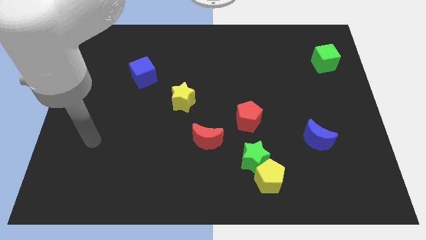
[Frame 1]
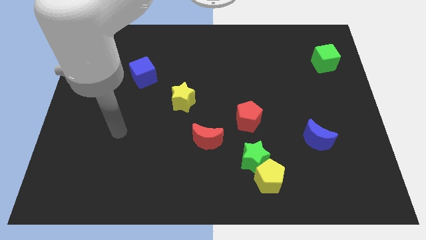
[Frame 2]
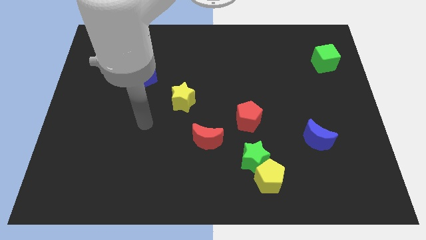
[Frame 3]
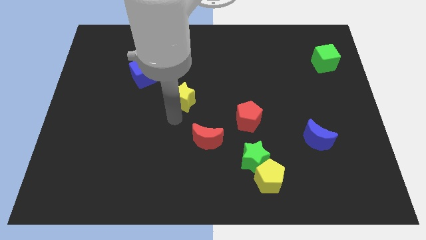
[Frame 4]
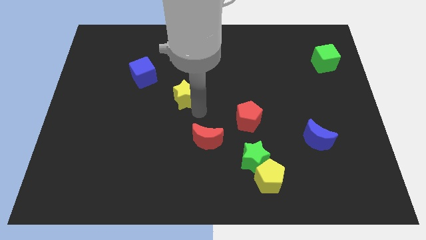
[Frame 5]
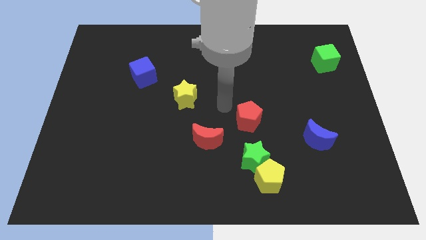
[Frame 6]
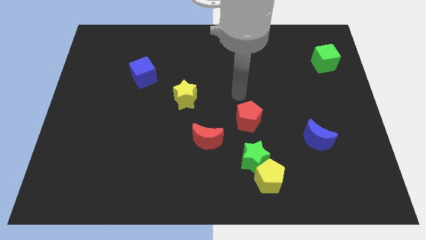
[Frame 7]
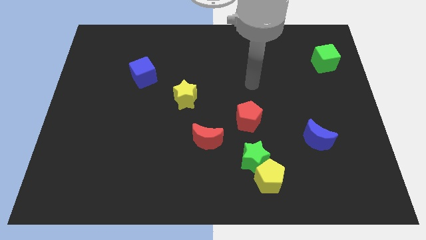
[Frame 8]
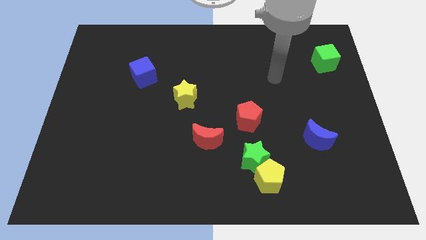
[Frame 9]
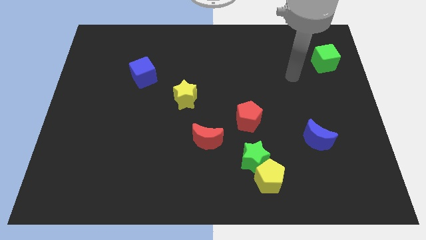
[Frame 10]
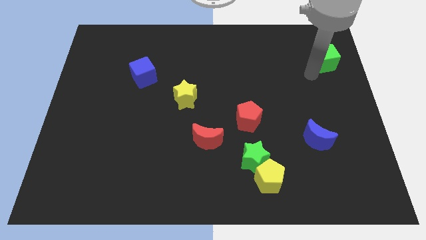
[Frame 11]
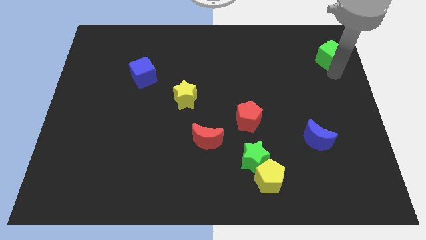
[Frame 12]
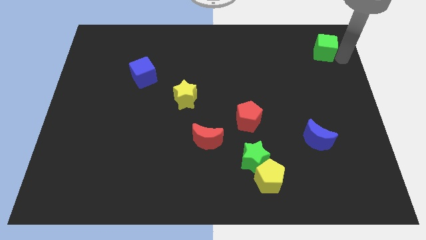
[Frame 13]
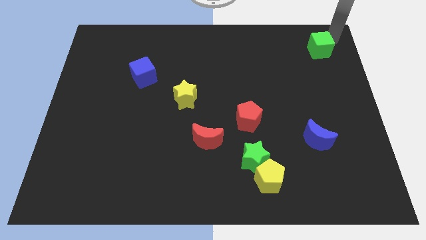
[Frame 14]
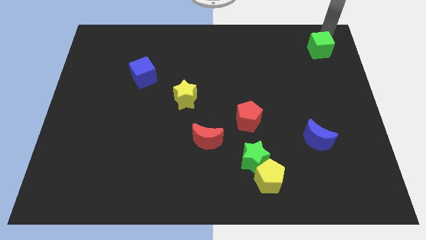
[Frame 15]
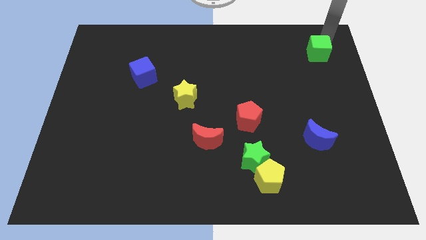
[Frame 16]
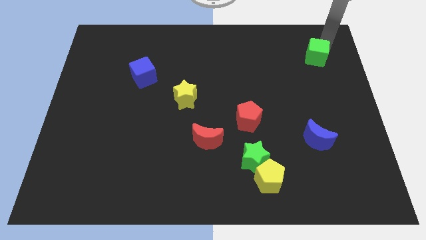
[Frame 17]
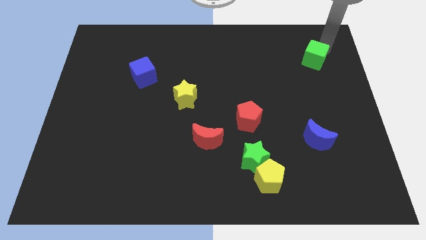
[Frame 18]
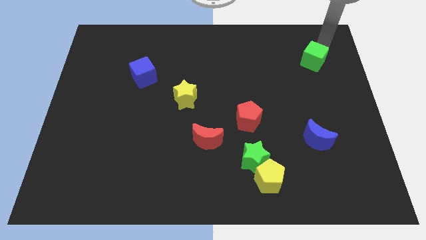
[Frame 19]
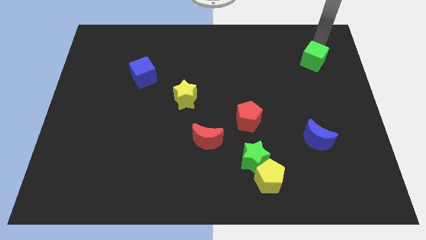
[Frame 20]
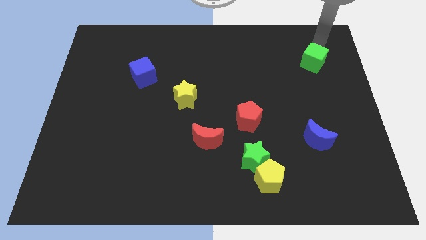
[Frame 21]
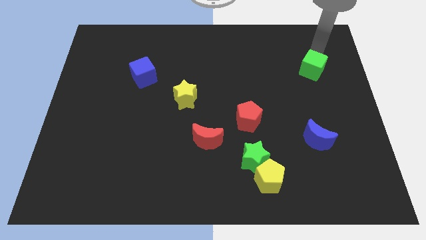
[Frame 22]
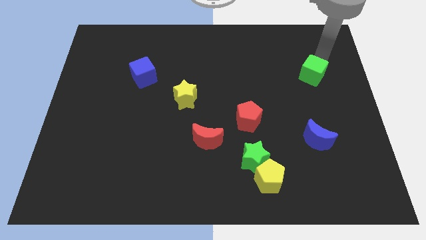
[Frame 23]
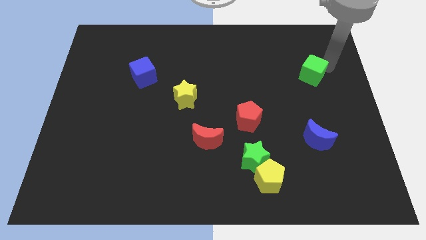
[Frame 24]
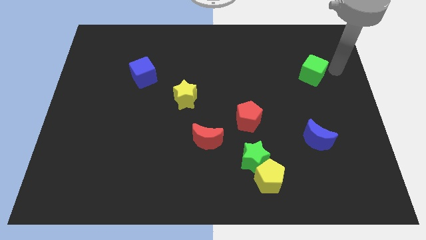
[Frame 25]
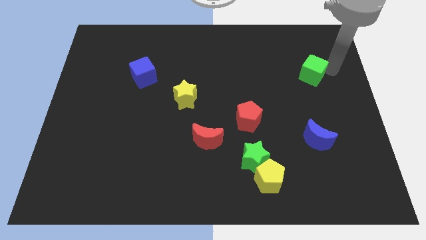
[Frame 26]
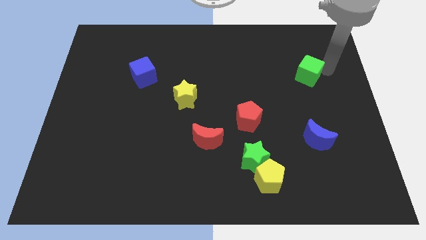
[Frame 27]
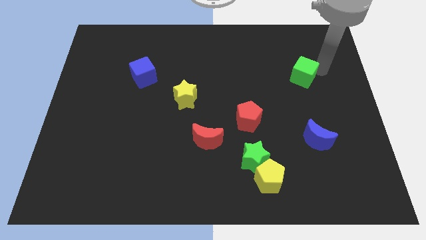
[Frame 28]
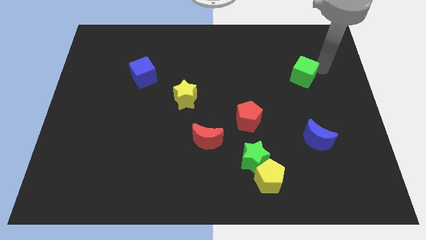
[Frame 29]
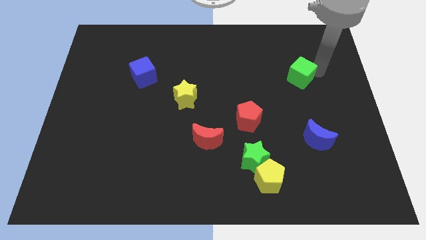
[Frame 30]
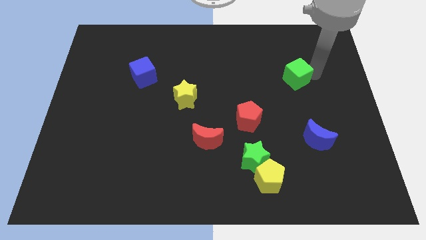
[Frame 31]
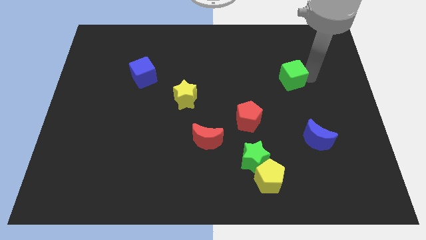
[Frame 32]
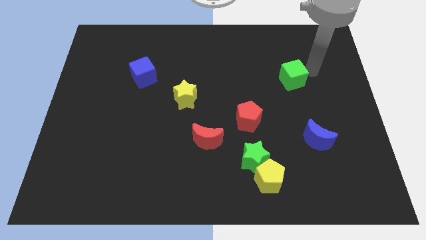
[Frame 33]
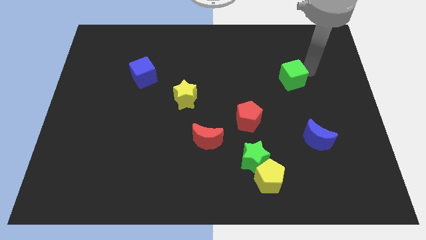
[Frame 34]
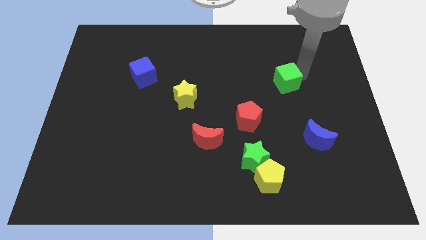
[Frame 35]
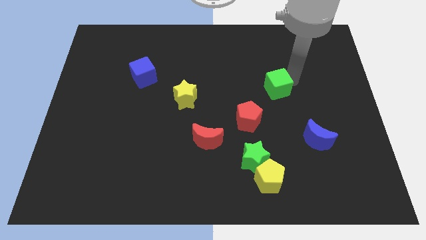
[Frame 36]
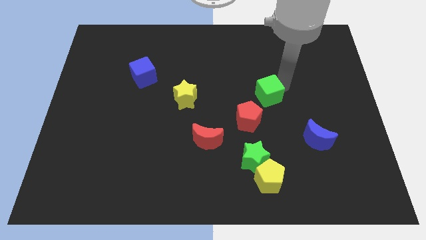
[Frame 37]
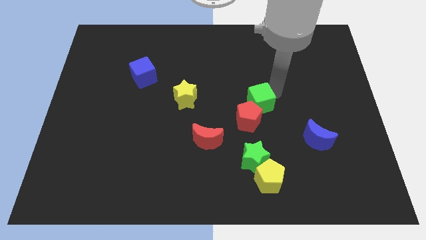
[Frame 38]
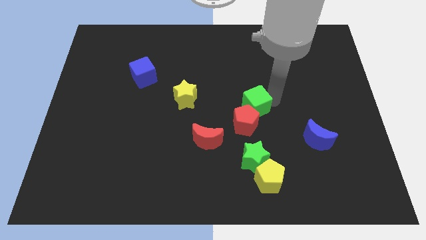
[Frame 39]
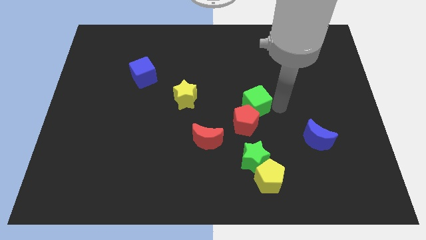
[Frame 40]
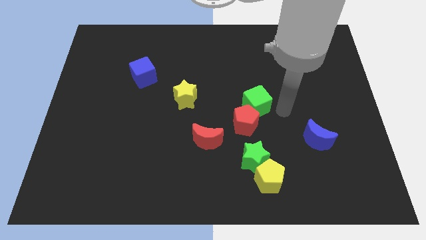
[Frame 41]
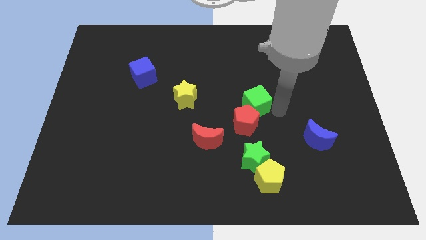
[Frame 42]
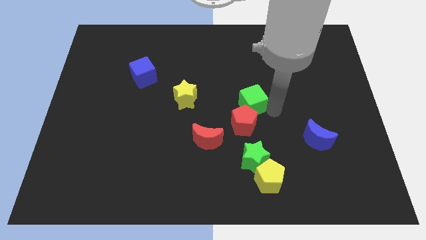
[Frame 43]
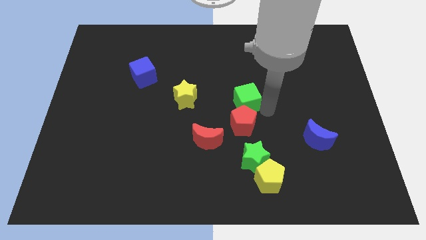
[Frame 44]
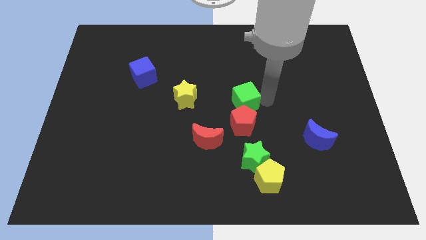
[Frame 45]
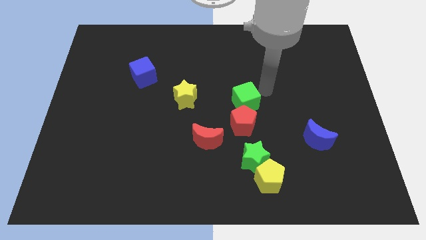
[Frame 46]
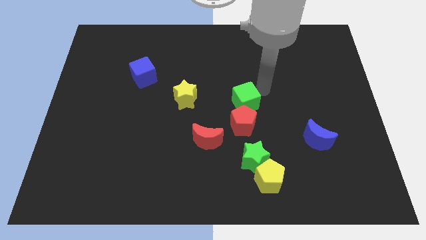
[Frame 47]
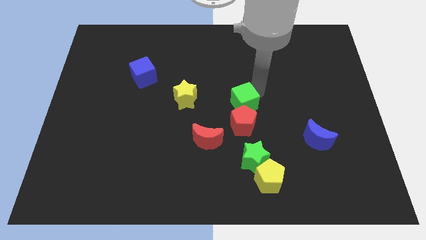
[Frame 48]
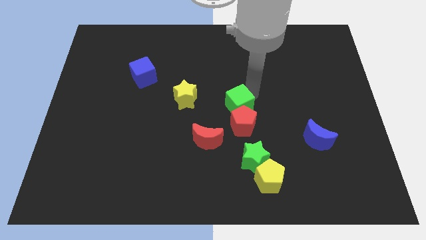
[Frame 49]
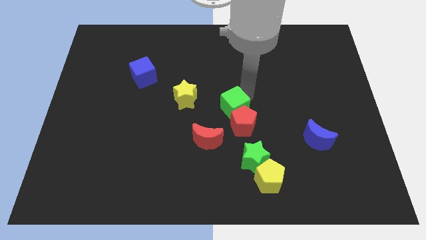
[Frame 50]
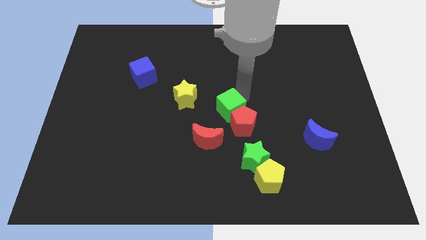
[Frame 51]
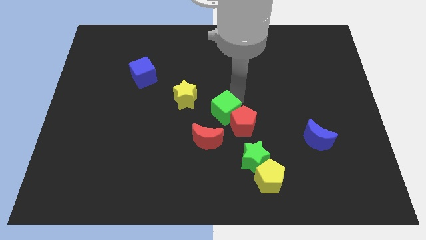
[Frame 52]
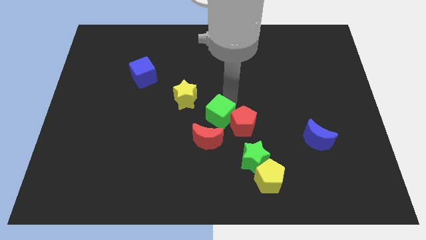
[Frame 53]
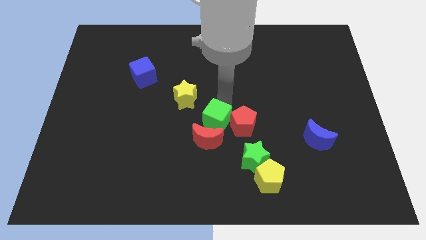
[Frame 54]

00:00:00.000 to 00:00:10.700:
slide the green cube to the red moon

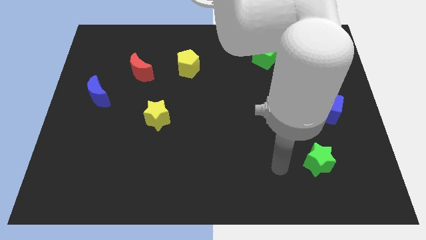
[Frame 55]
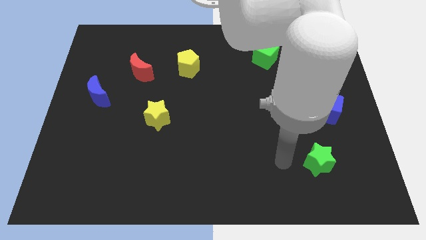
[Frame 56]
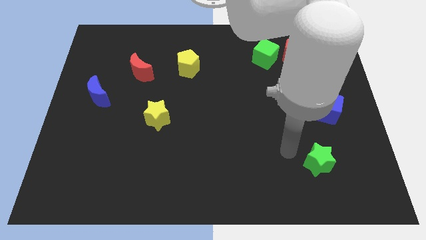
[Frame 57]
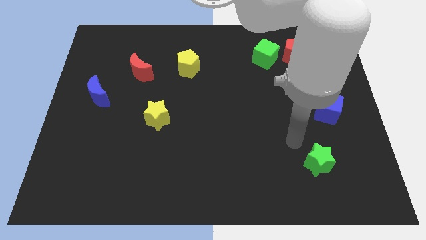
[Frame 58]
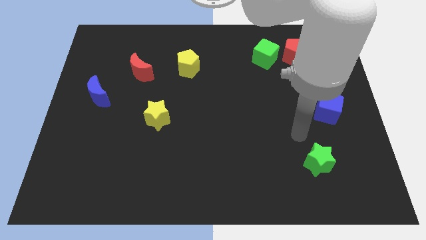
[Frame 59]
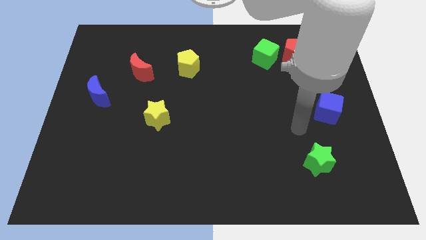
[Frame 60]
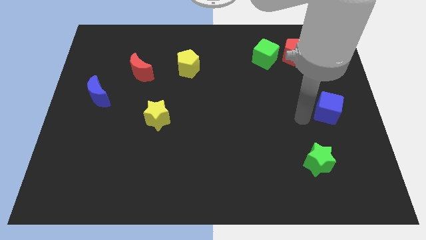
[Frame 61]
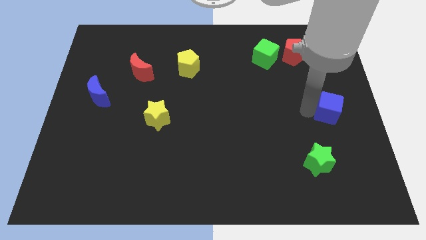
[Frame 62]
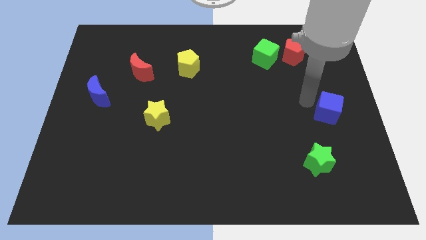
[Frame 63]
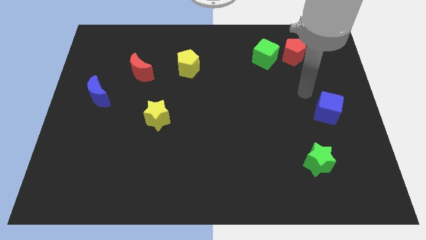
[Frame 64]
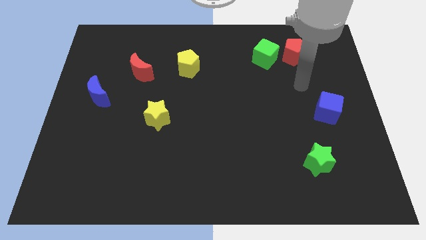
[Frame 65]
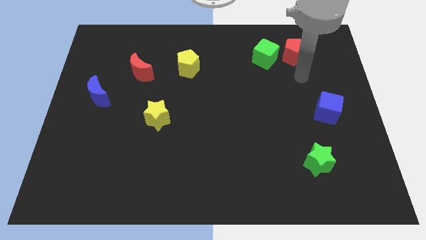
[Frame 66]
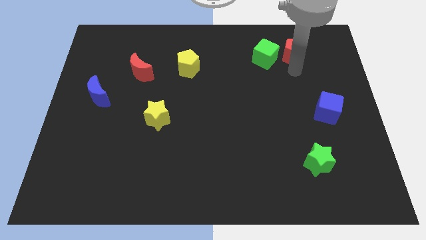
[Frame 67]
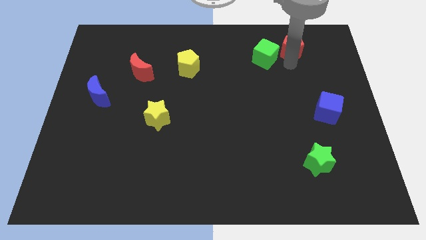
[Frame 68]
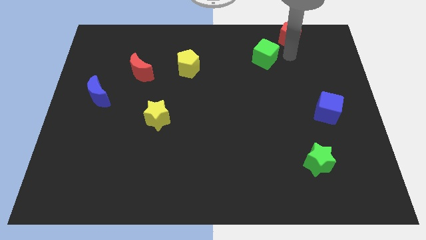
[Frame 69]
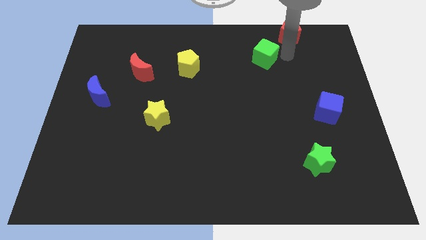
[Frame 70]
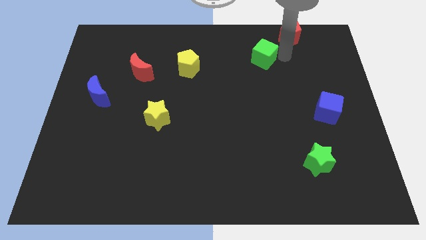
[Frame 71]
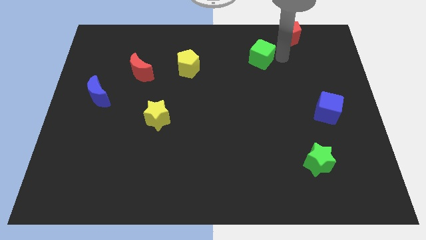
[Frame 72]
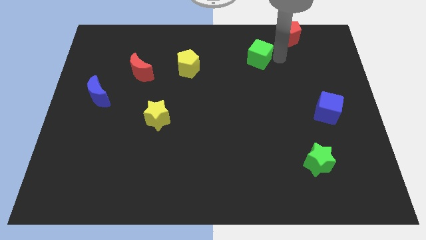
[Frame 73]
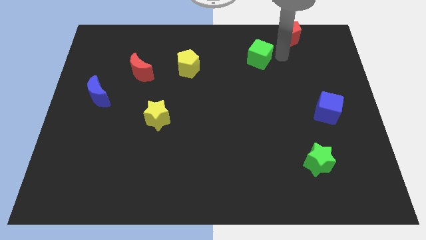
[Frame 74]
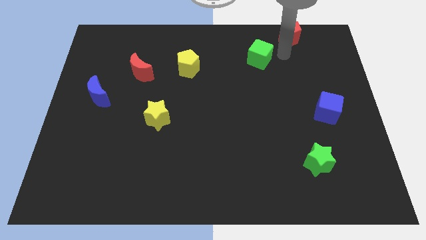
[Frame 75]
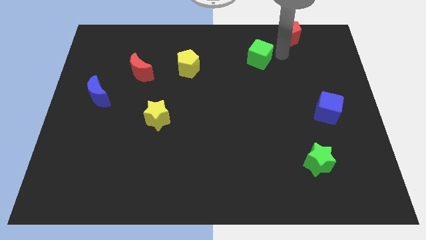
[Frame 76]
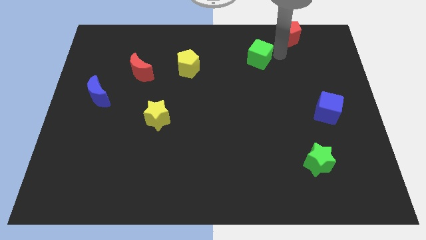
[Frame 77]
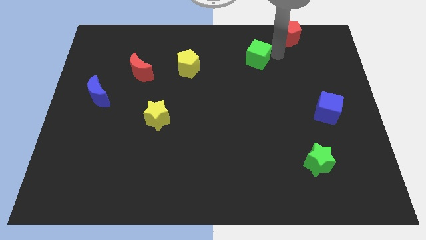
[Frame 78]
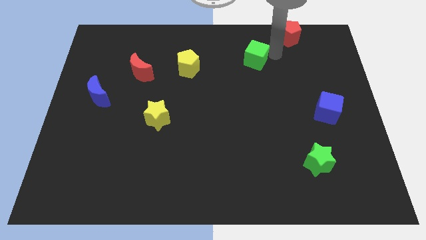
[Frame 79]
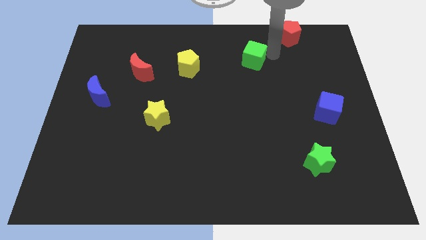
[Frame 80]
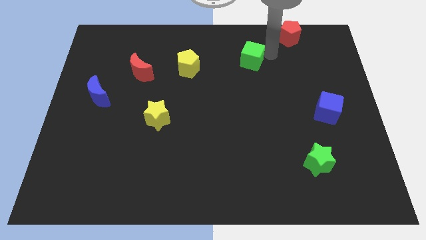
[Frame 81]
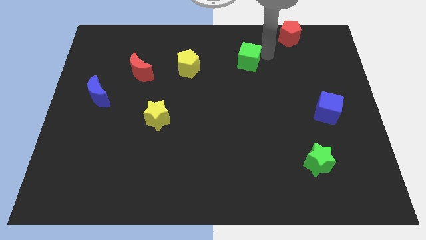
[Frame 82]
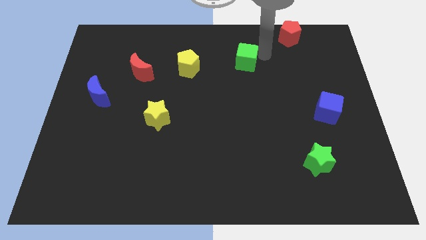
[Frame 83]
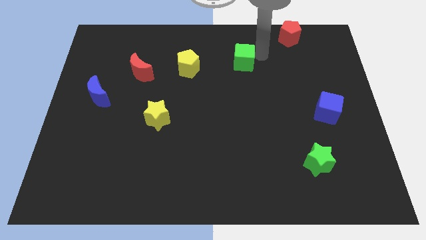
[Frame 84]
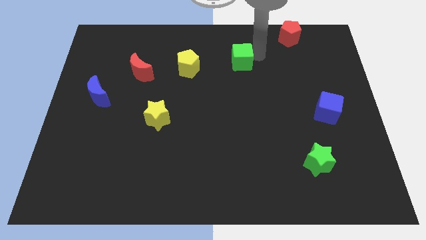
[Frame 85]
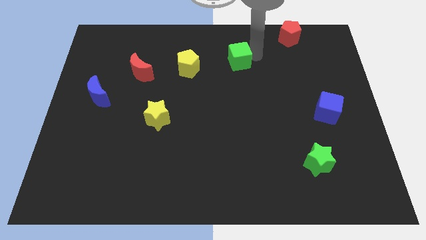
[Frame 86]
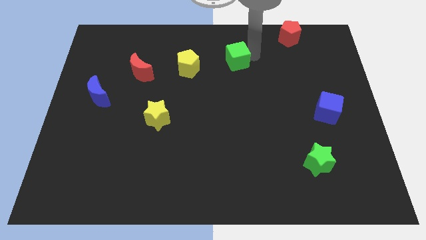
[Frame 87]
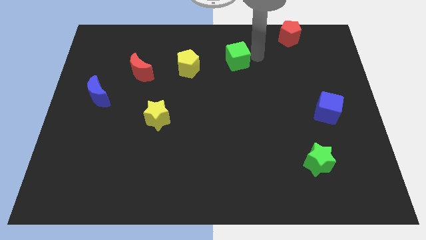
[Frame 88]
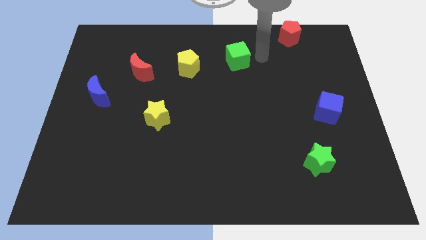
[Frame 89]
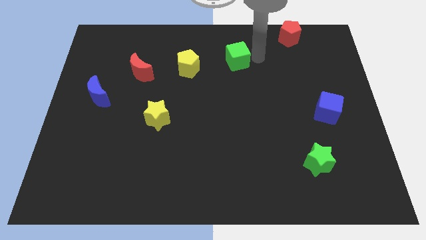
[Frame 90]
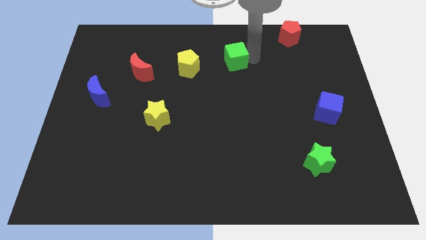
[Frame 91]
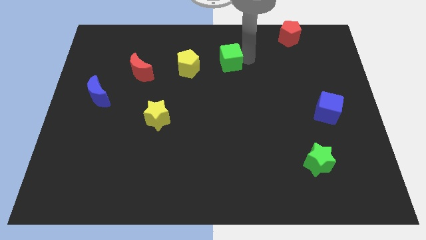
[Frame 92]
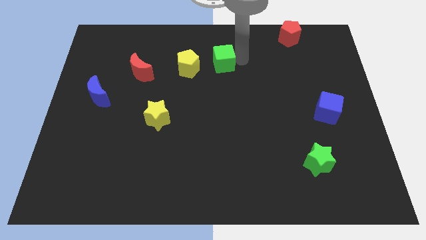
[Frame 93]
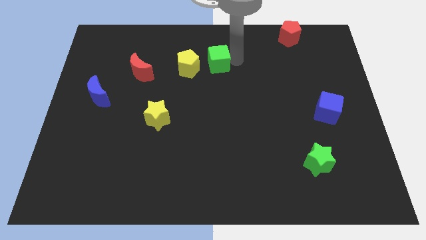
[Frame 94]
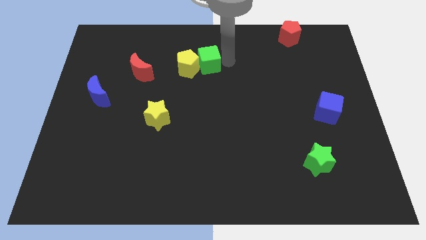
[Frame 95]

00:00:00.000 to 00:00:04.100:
slide the green cube to the yellow pentagon
